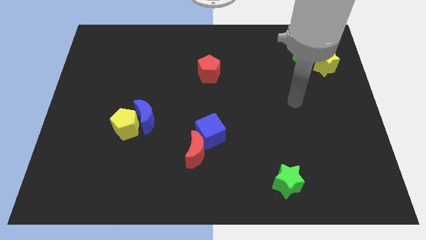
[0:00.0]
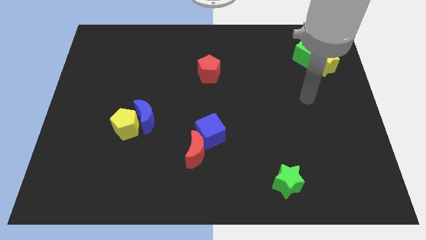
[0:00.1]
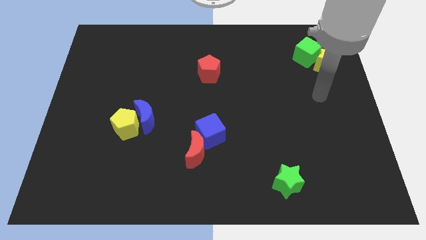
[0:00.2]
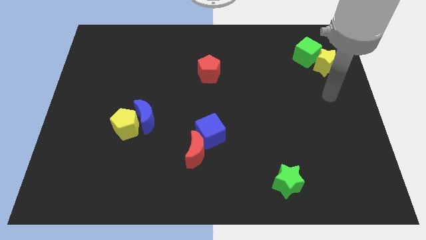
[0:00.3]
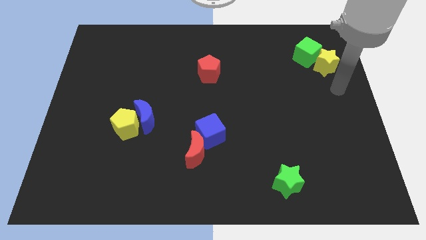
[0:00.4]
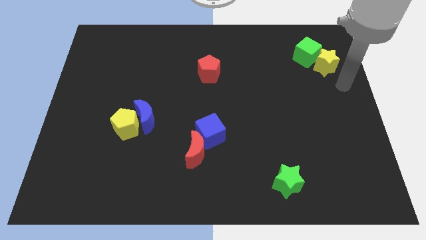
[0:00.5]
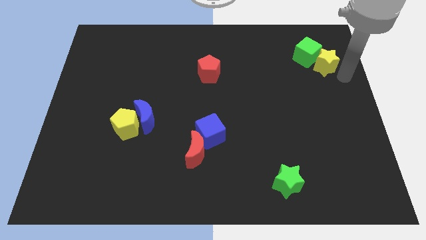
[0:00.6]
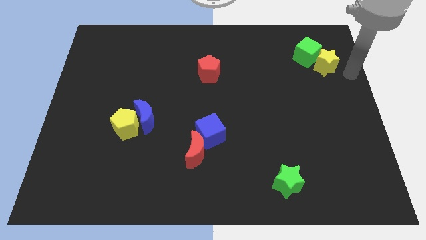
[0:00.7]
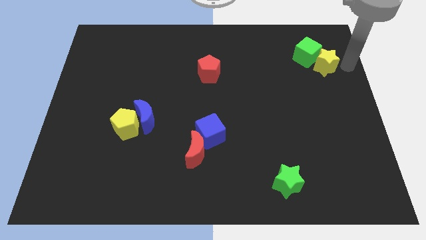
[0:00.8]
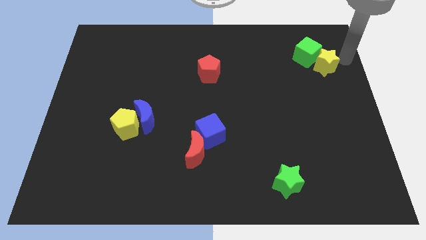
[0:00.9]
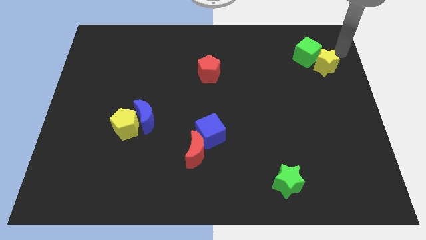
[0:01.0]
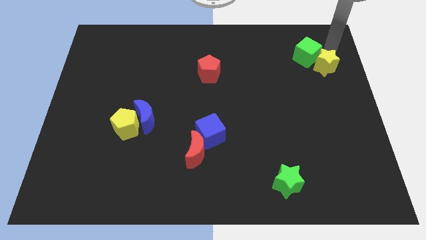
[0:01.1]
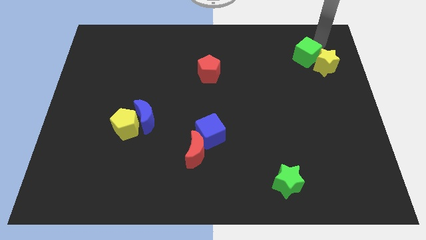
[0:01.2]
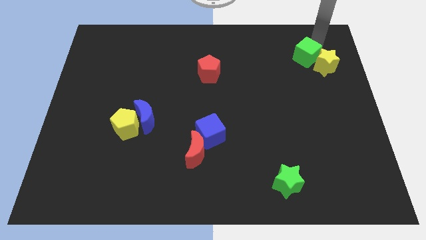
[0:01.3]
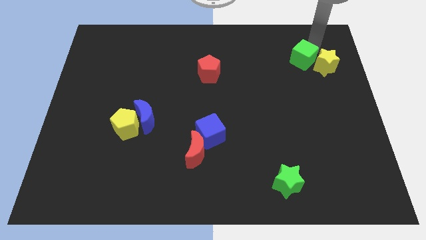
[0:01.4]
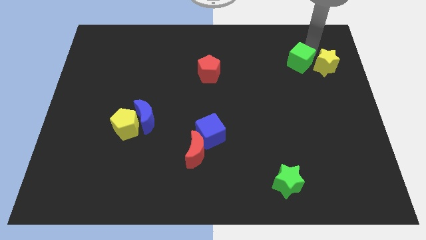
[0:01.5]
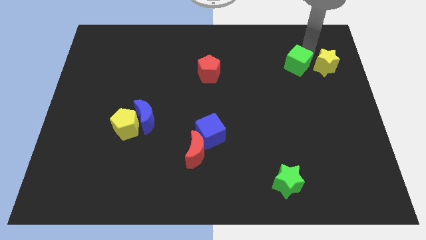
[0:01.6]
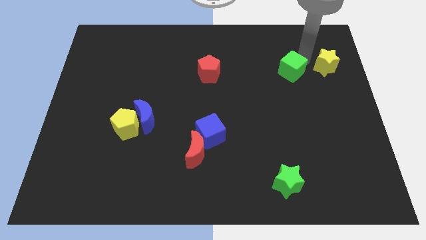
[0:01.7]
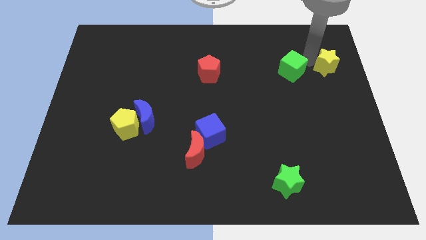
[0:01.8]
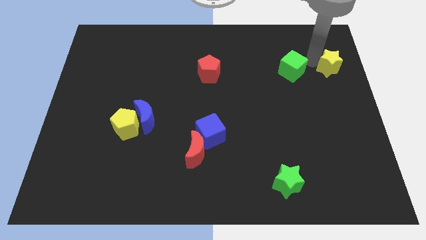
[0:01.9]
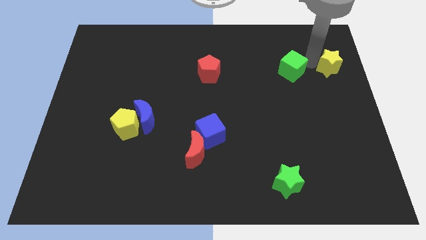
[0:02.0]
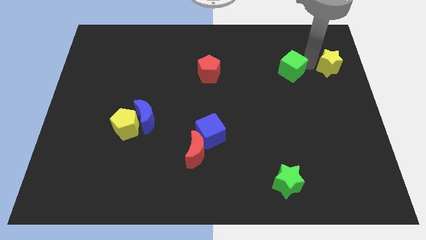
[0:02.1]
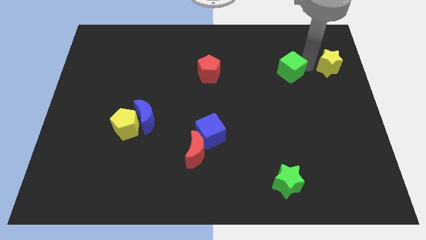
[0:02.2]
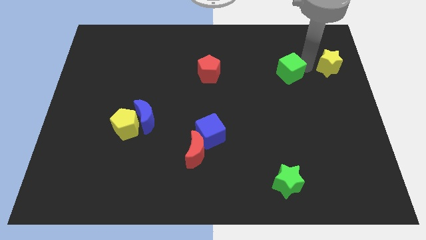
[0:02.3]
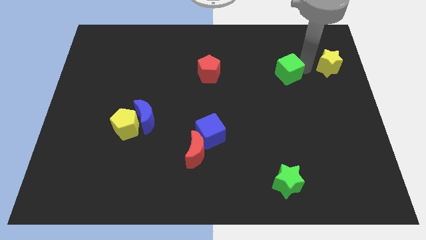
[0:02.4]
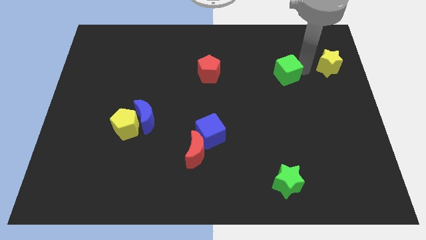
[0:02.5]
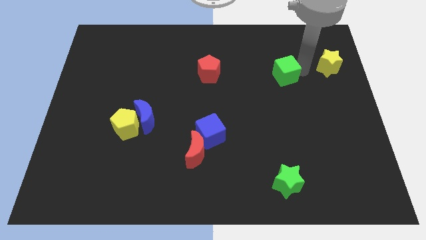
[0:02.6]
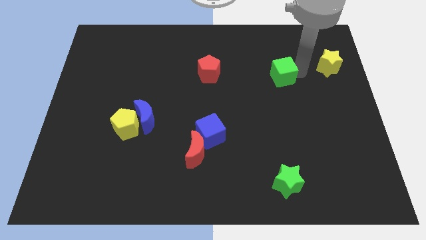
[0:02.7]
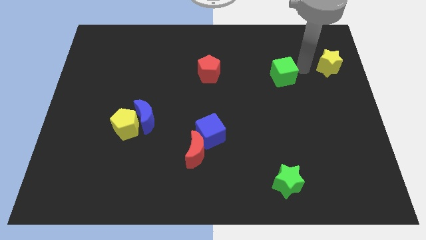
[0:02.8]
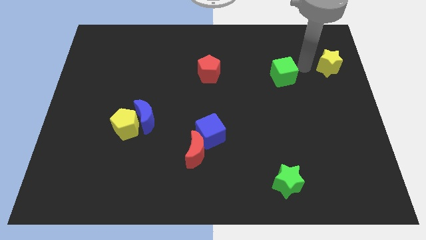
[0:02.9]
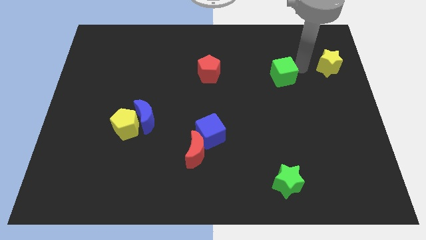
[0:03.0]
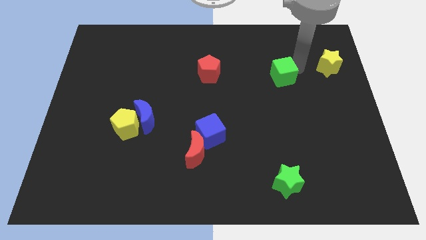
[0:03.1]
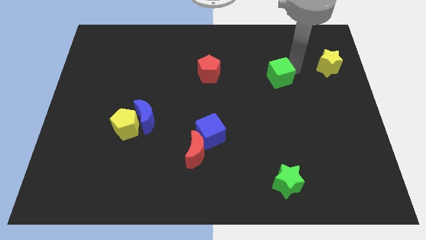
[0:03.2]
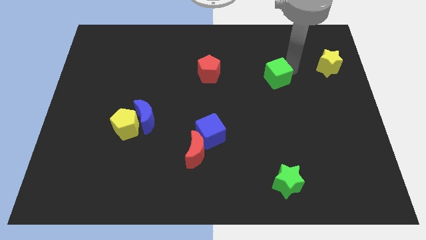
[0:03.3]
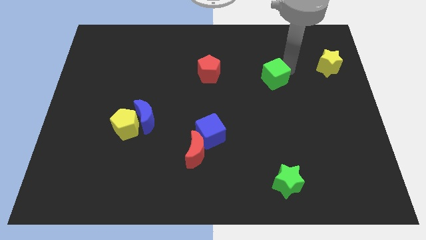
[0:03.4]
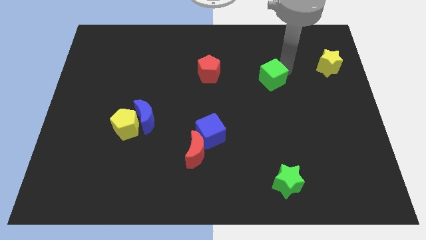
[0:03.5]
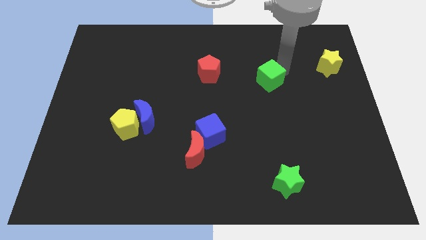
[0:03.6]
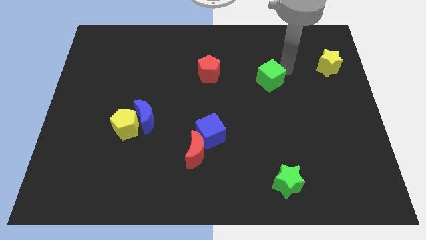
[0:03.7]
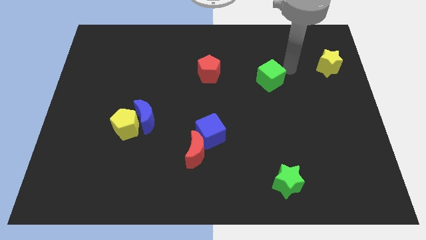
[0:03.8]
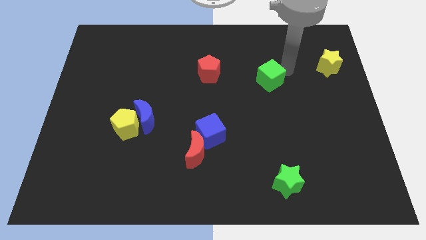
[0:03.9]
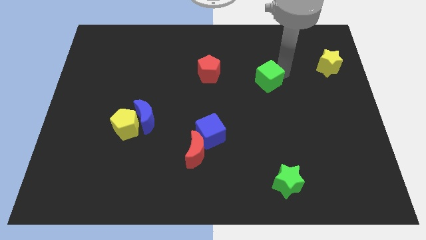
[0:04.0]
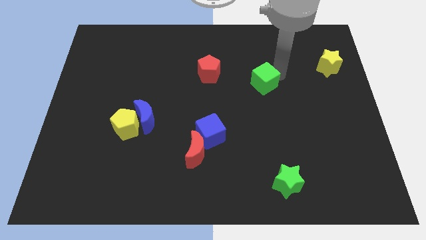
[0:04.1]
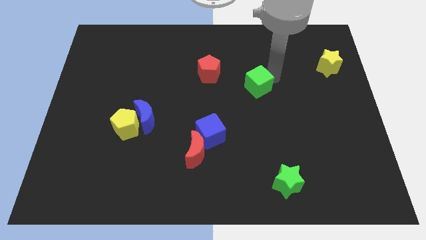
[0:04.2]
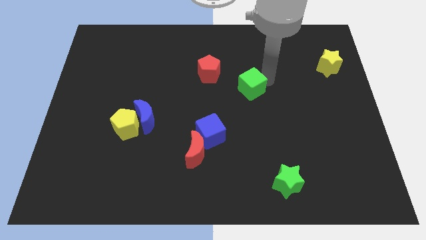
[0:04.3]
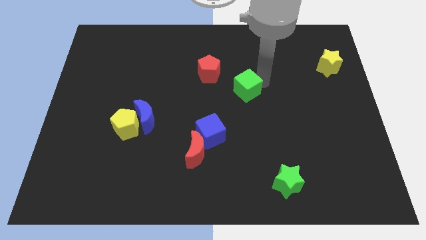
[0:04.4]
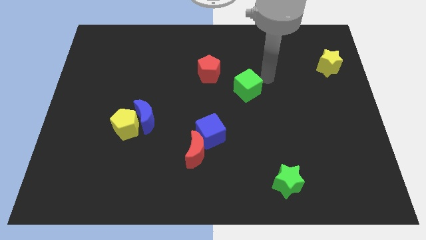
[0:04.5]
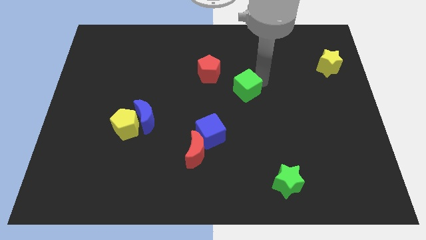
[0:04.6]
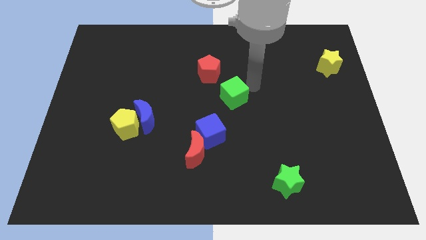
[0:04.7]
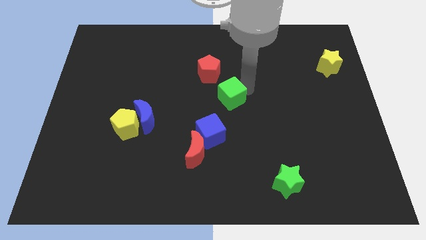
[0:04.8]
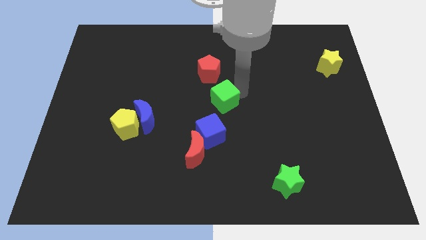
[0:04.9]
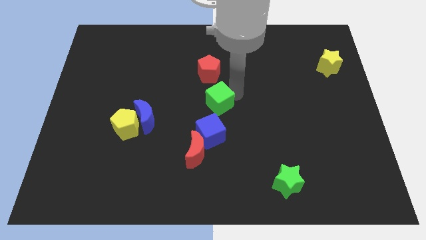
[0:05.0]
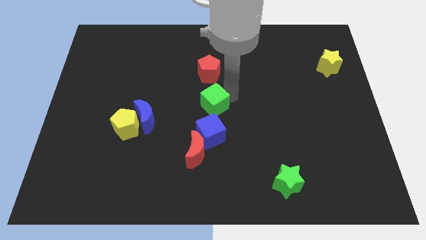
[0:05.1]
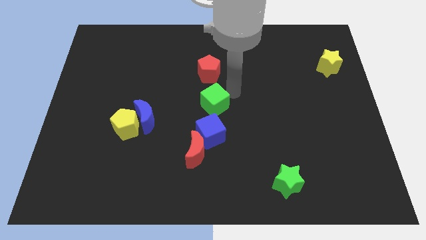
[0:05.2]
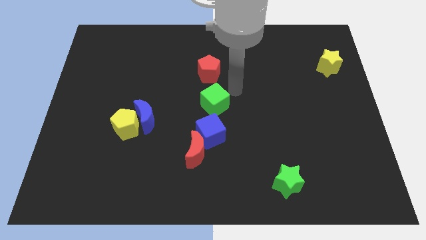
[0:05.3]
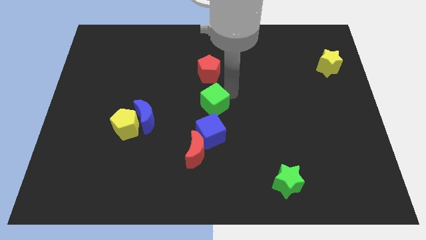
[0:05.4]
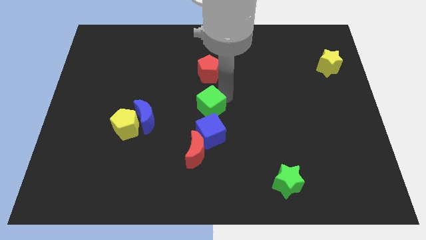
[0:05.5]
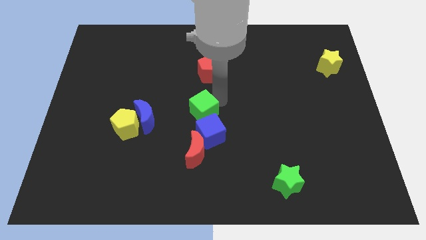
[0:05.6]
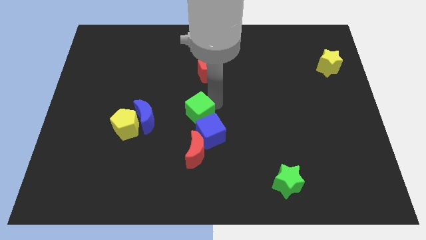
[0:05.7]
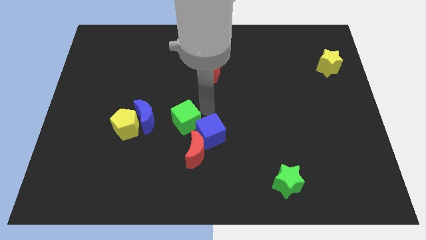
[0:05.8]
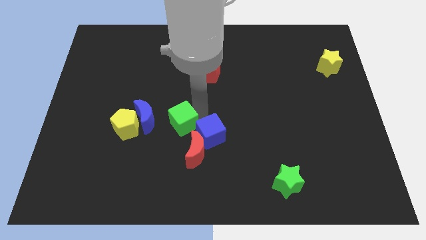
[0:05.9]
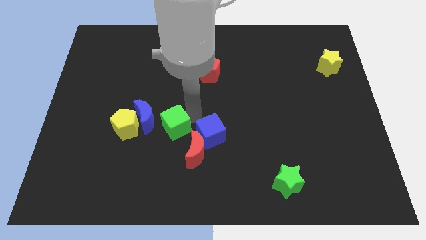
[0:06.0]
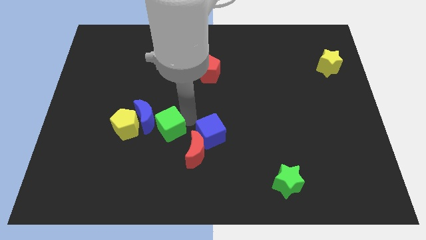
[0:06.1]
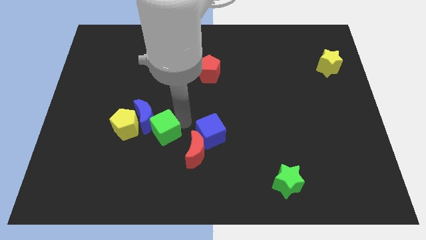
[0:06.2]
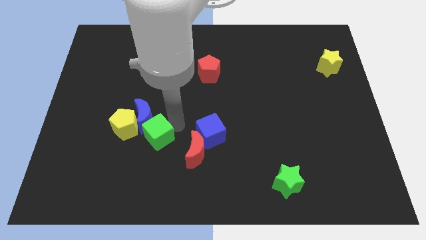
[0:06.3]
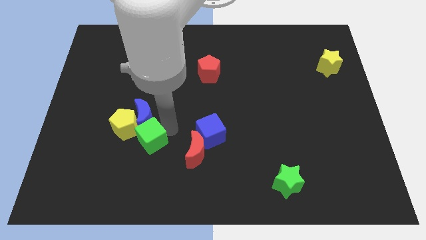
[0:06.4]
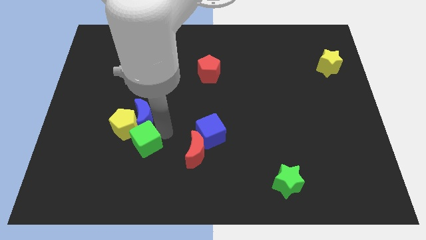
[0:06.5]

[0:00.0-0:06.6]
slide the green cube next to the yellow pentagon

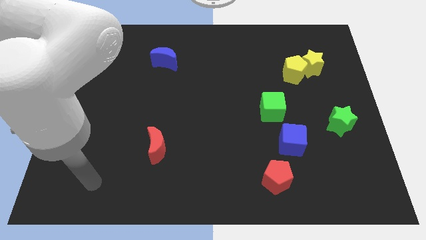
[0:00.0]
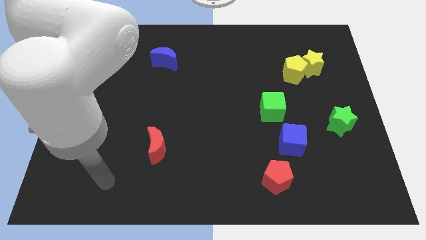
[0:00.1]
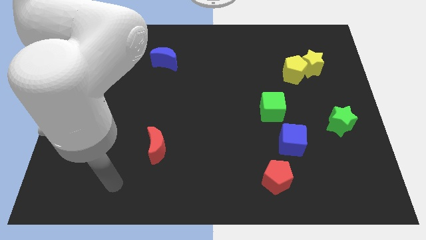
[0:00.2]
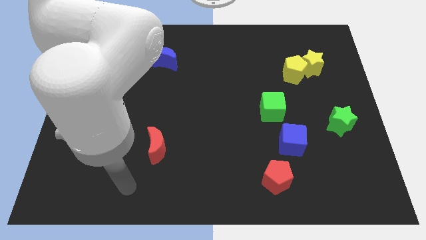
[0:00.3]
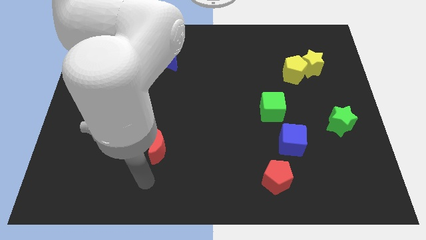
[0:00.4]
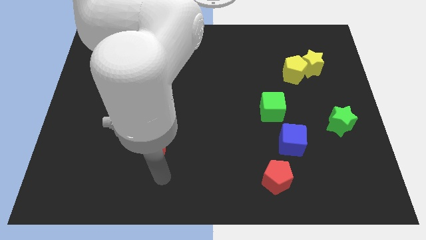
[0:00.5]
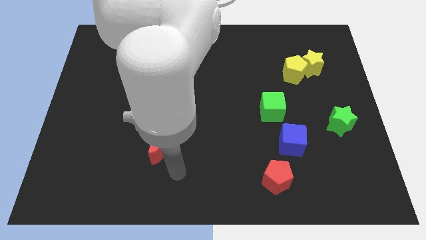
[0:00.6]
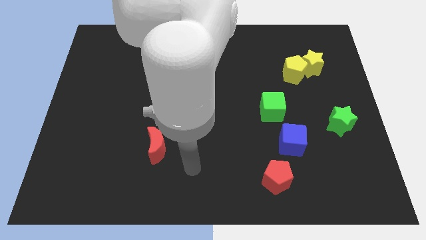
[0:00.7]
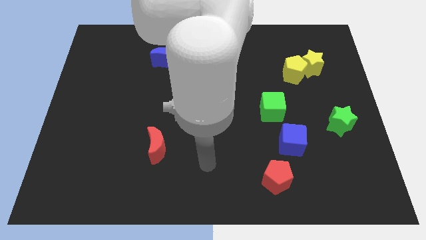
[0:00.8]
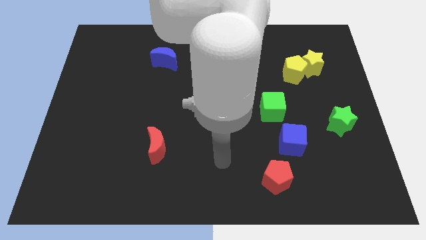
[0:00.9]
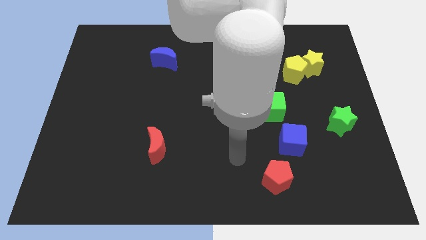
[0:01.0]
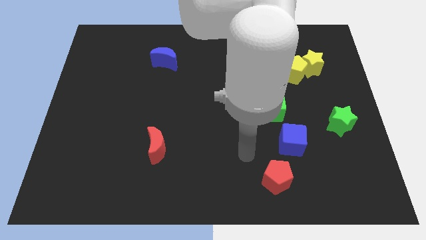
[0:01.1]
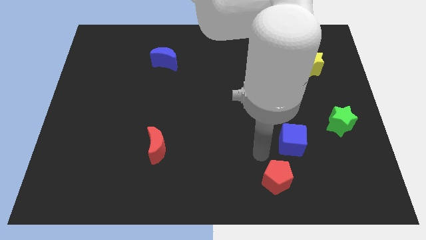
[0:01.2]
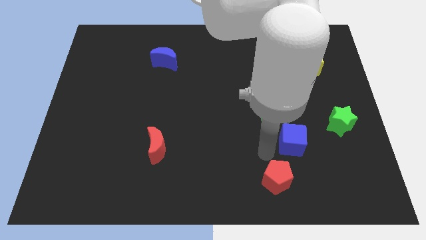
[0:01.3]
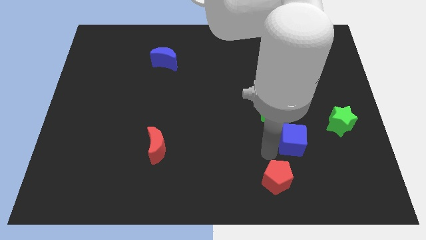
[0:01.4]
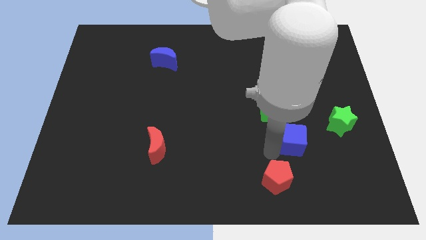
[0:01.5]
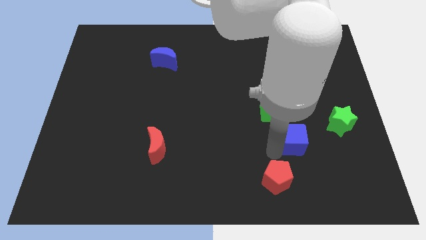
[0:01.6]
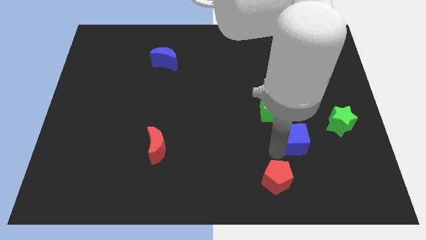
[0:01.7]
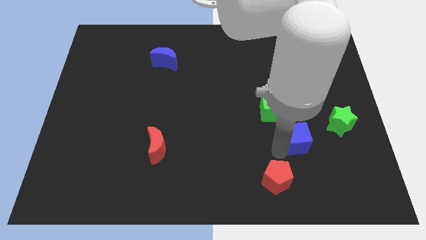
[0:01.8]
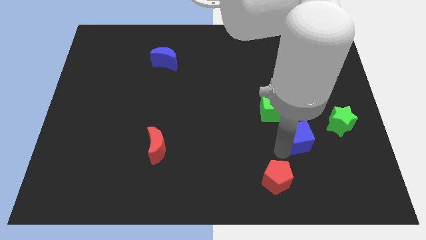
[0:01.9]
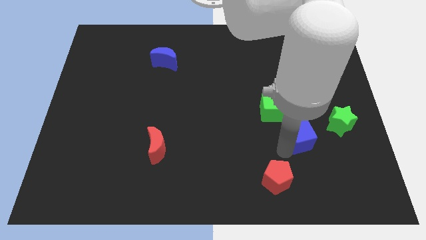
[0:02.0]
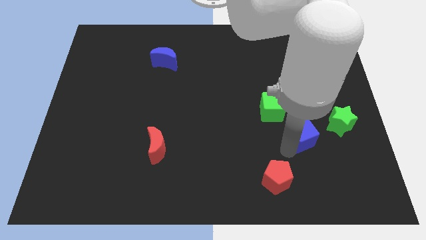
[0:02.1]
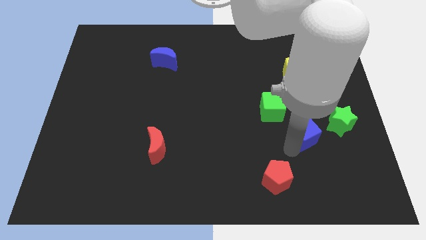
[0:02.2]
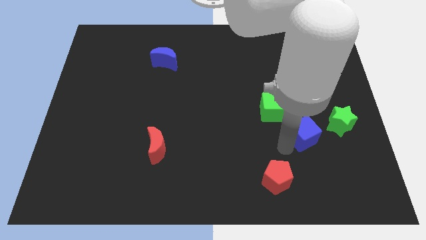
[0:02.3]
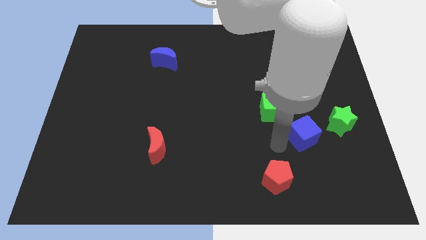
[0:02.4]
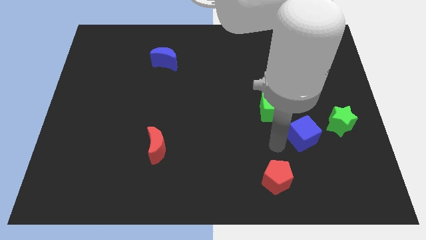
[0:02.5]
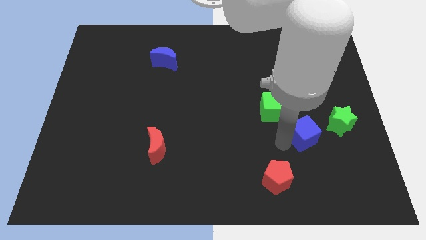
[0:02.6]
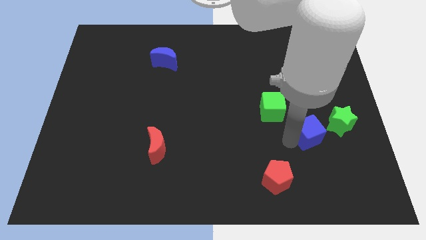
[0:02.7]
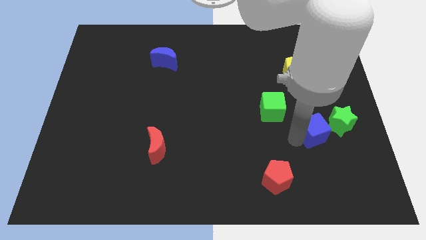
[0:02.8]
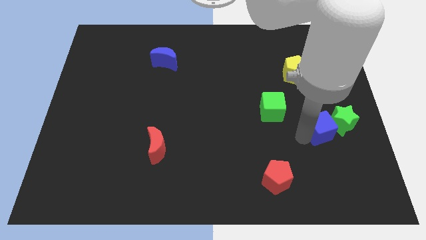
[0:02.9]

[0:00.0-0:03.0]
push the blue cube towards the green star
